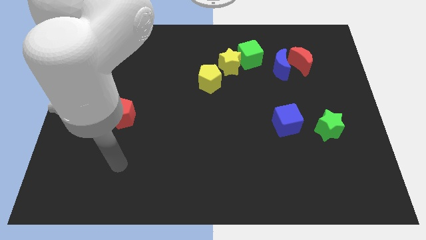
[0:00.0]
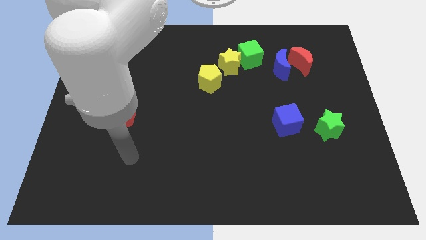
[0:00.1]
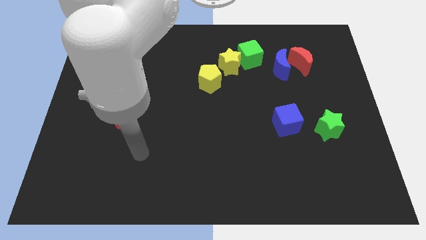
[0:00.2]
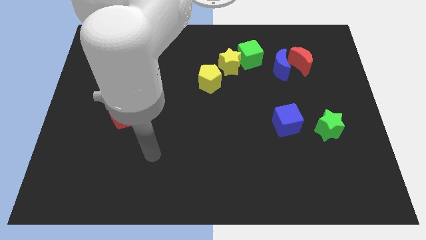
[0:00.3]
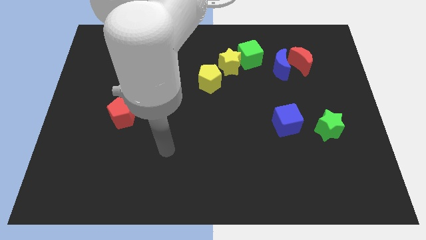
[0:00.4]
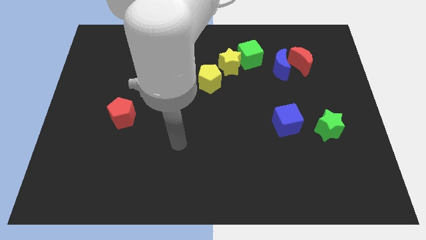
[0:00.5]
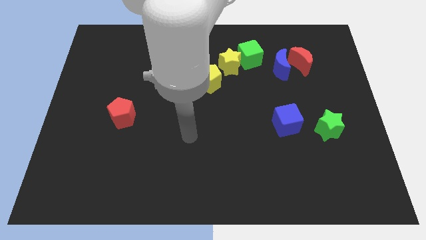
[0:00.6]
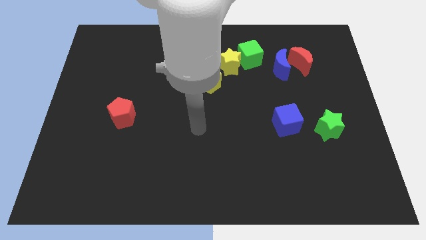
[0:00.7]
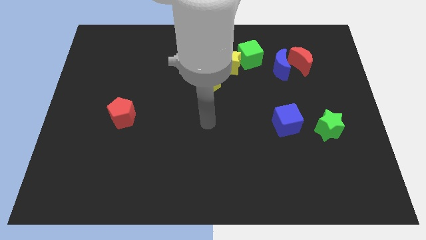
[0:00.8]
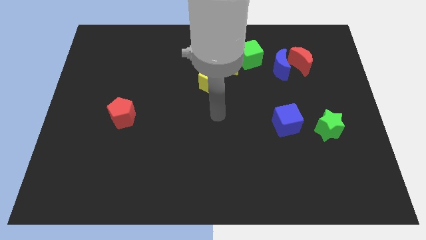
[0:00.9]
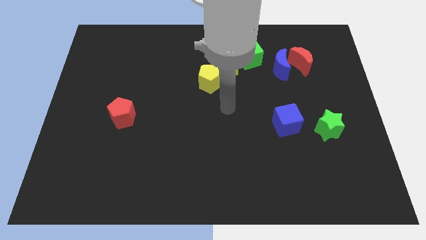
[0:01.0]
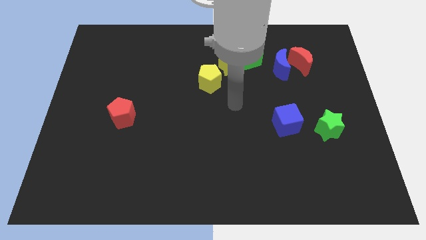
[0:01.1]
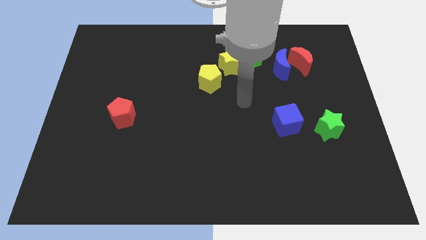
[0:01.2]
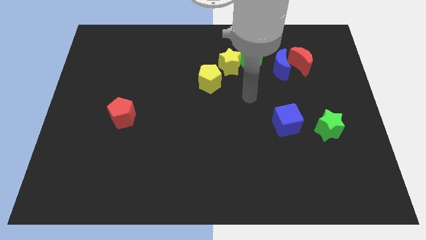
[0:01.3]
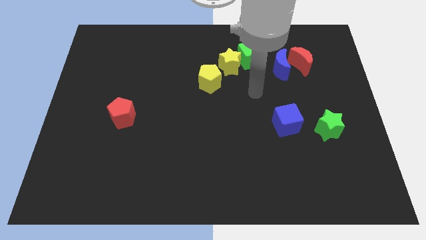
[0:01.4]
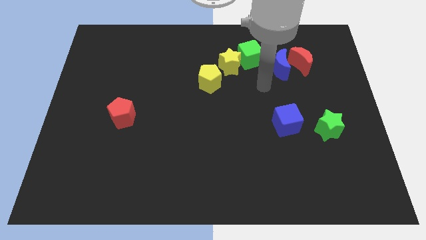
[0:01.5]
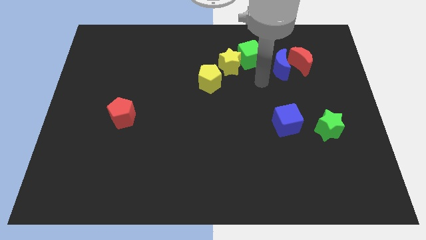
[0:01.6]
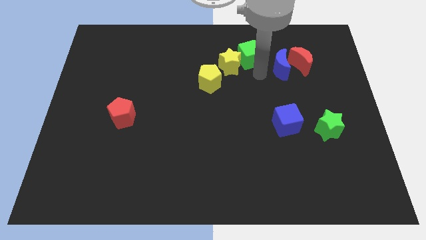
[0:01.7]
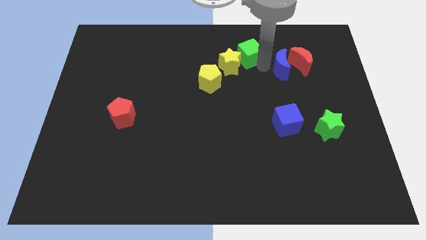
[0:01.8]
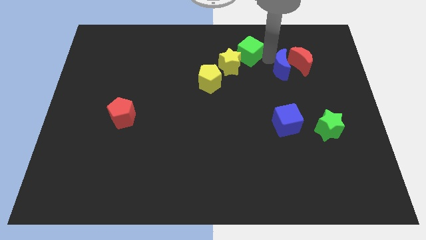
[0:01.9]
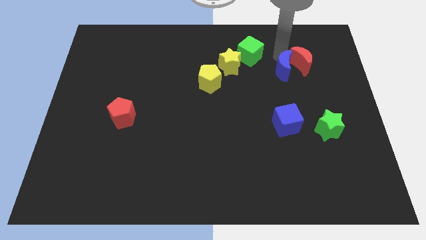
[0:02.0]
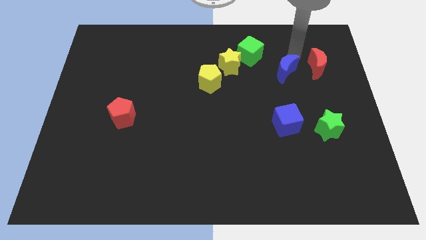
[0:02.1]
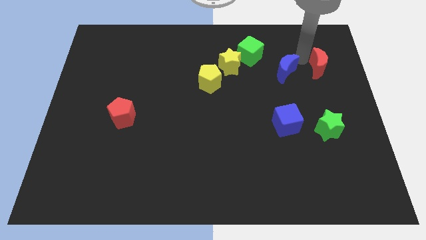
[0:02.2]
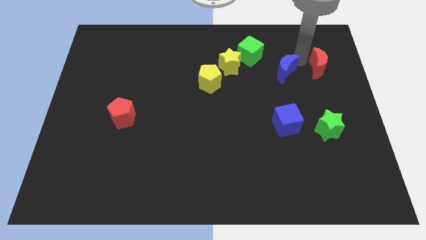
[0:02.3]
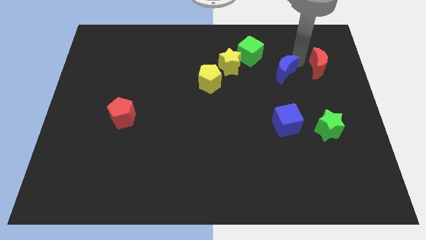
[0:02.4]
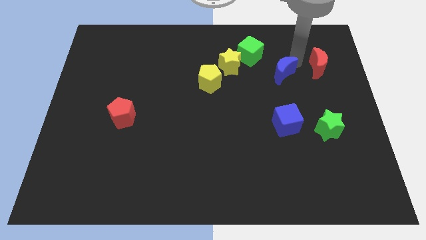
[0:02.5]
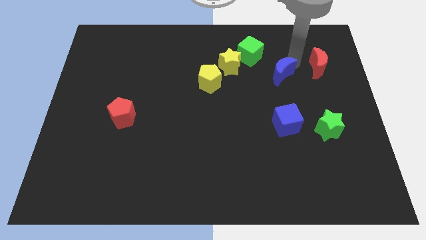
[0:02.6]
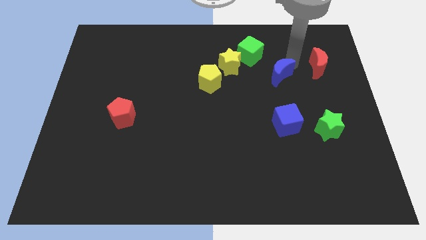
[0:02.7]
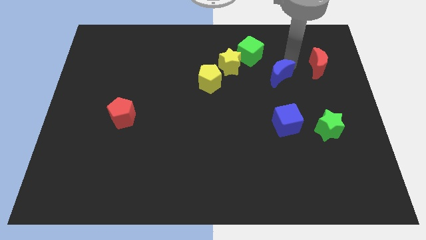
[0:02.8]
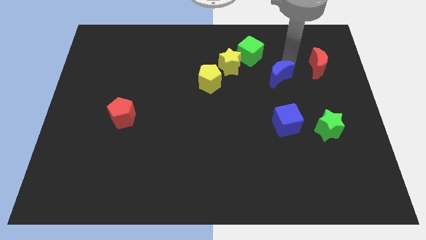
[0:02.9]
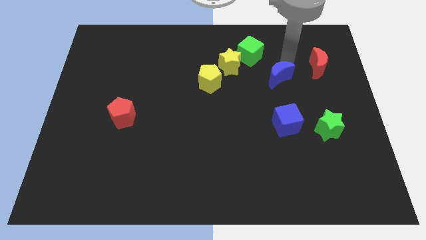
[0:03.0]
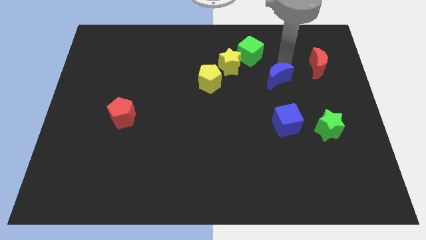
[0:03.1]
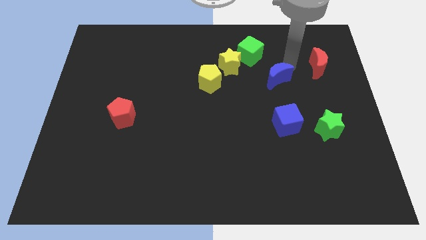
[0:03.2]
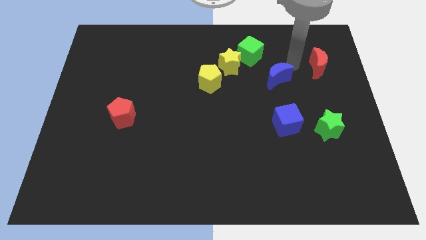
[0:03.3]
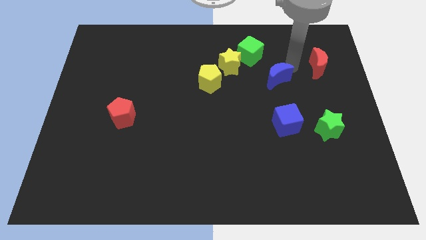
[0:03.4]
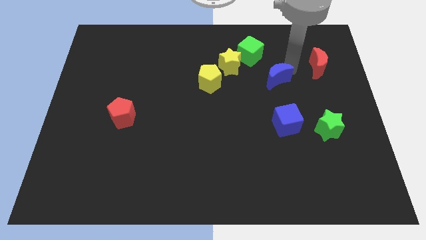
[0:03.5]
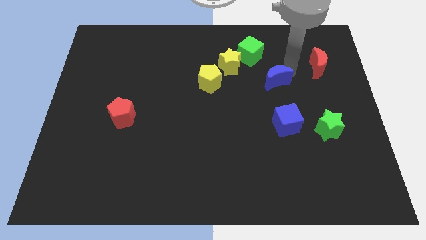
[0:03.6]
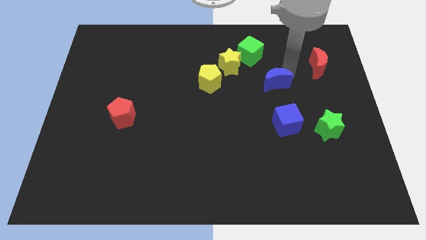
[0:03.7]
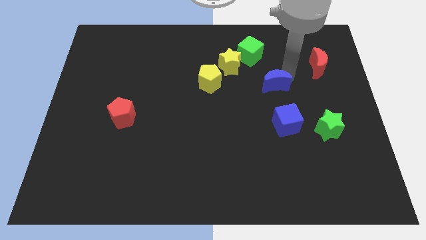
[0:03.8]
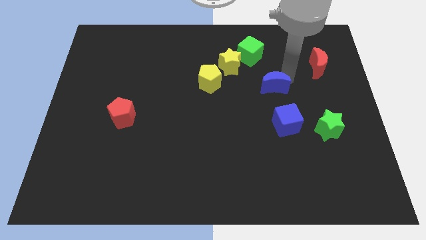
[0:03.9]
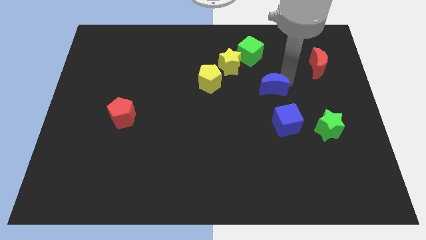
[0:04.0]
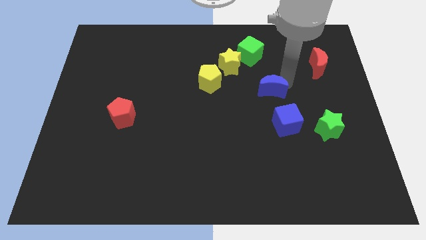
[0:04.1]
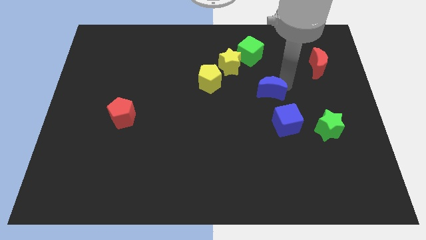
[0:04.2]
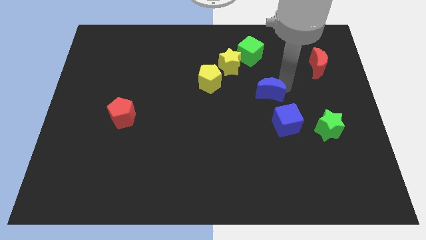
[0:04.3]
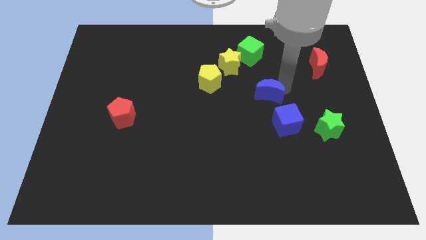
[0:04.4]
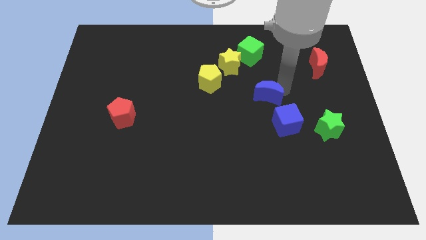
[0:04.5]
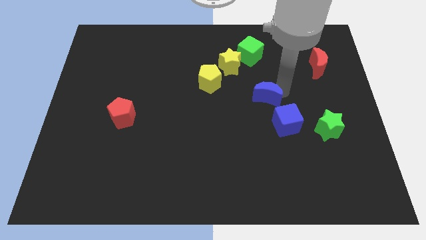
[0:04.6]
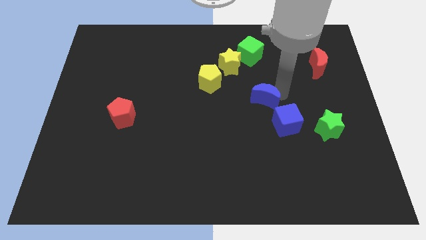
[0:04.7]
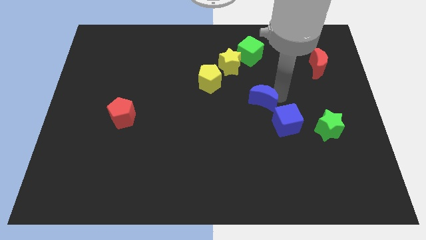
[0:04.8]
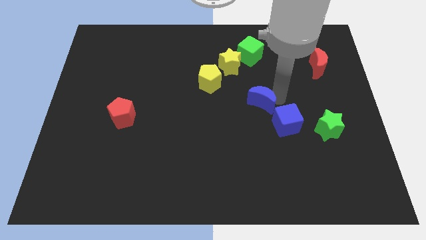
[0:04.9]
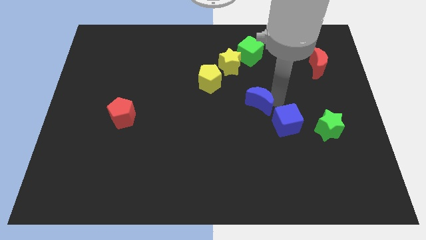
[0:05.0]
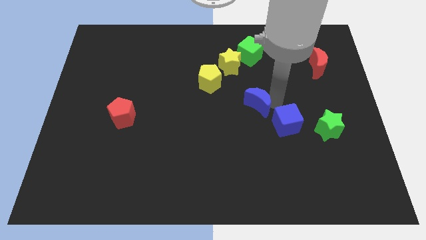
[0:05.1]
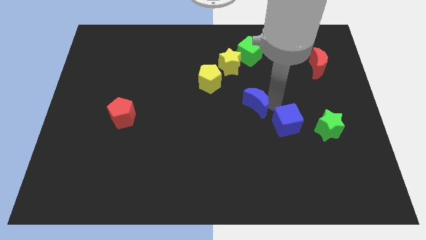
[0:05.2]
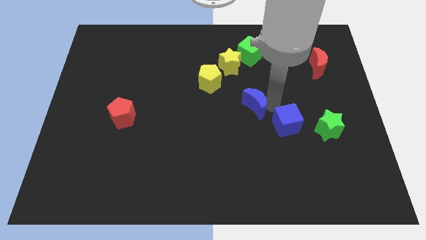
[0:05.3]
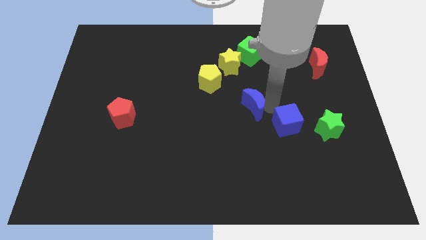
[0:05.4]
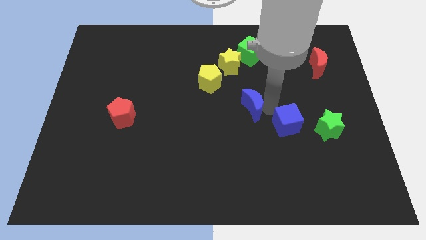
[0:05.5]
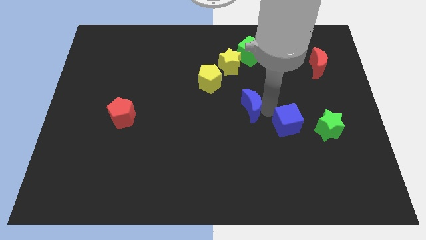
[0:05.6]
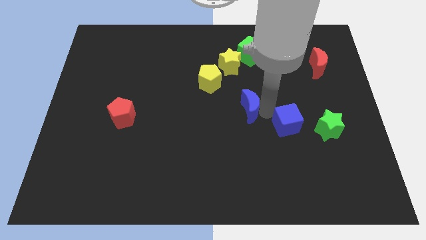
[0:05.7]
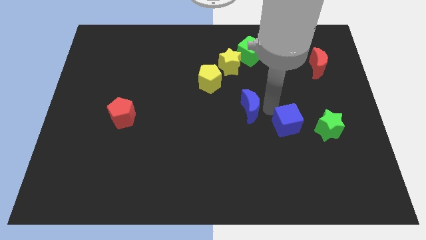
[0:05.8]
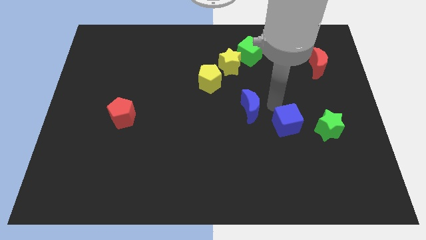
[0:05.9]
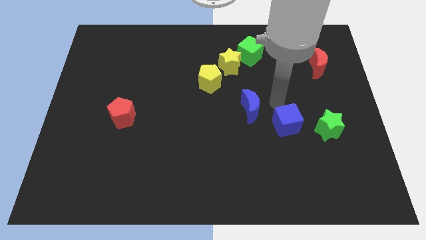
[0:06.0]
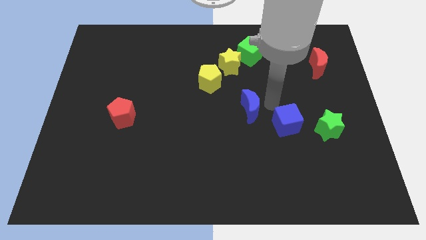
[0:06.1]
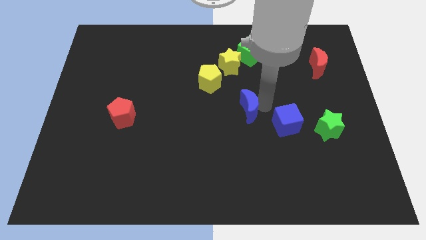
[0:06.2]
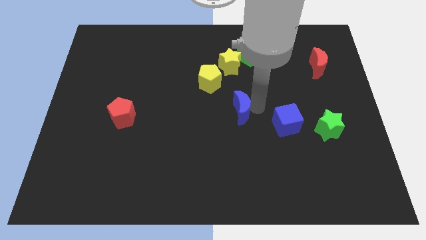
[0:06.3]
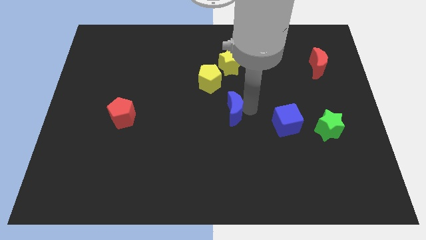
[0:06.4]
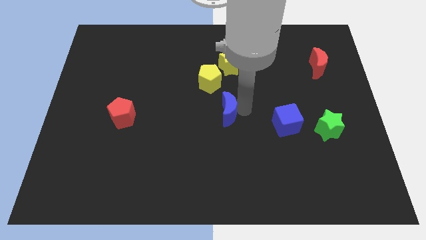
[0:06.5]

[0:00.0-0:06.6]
push the blue moon down and then to the left

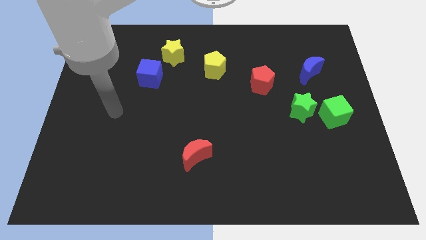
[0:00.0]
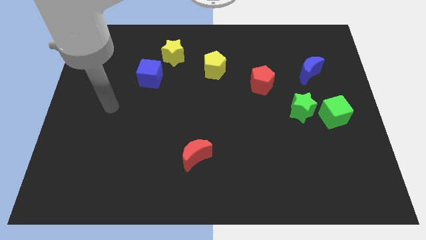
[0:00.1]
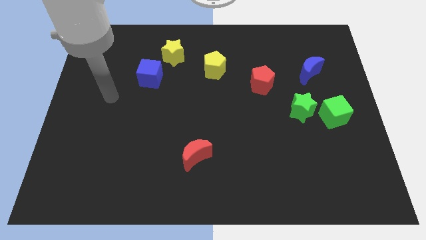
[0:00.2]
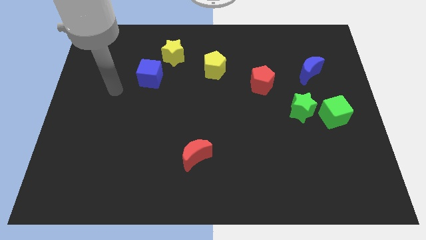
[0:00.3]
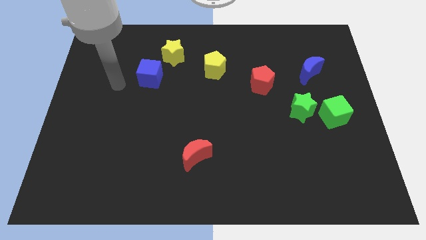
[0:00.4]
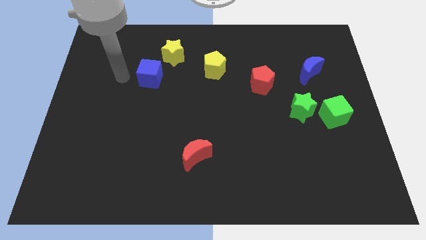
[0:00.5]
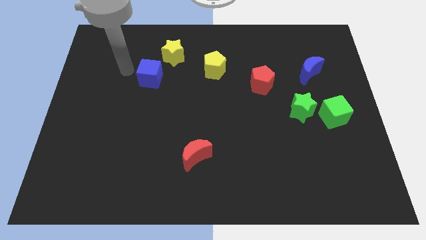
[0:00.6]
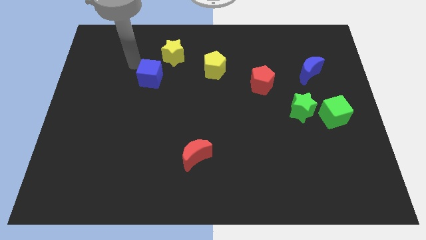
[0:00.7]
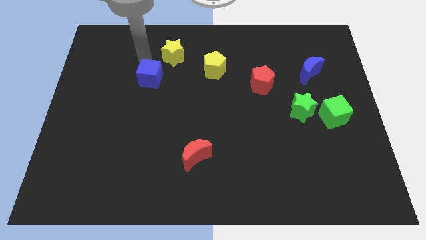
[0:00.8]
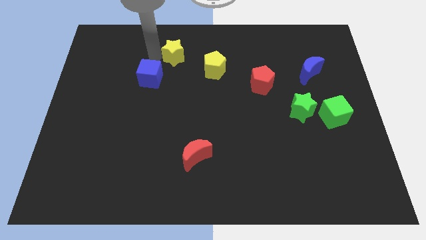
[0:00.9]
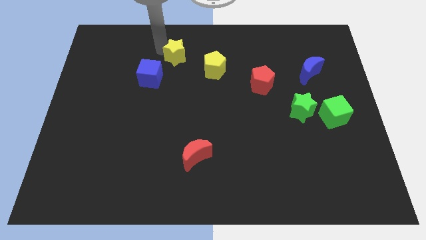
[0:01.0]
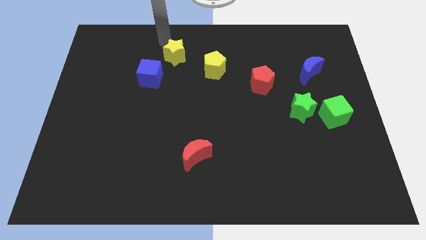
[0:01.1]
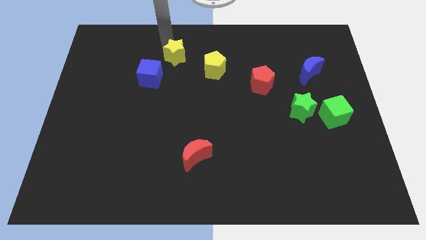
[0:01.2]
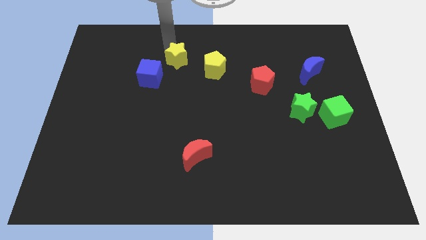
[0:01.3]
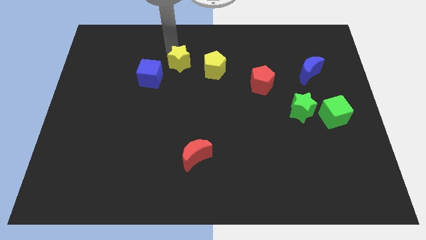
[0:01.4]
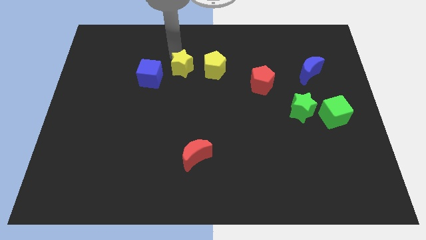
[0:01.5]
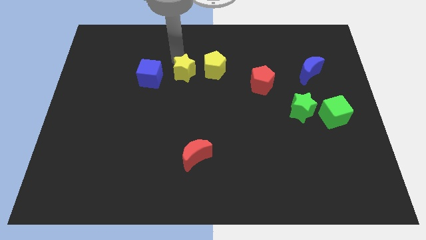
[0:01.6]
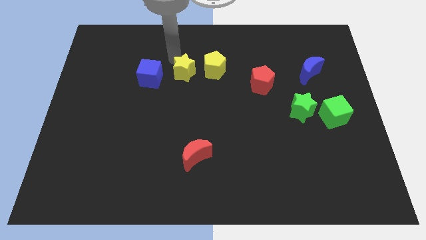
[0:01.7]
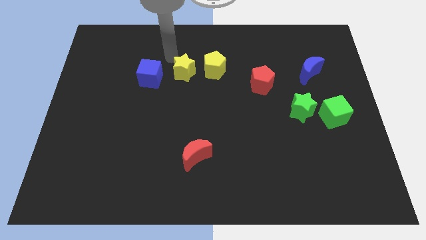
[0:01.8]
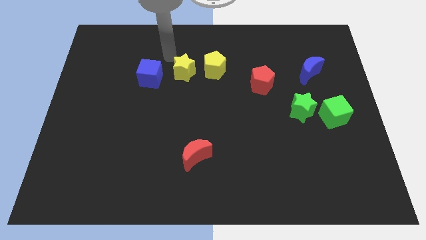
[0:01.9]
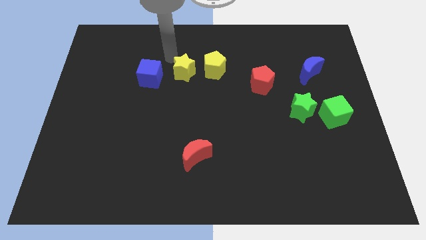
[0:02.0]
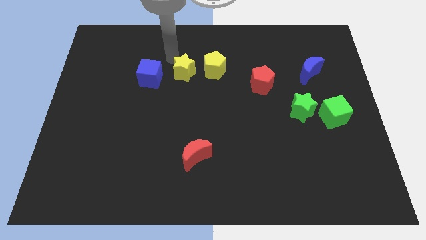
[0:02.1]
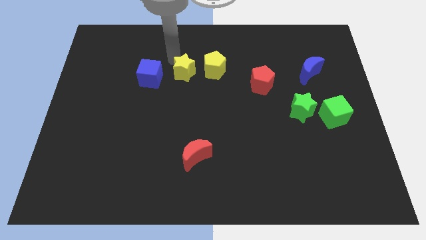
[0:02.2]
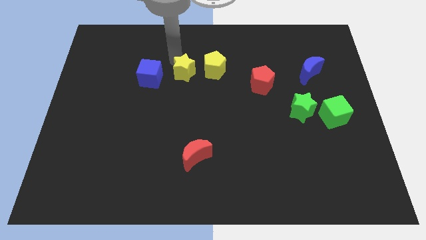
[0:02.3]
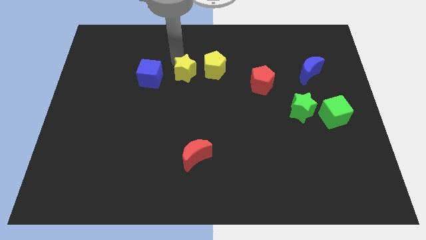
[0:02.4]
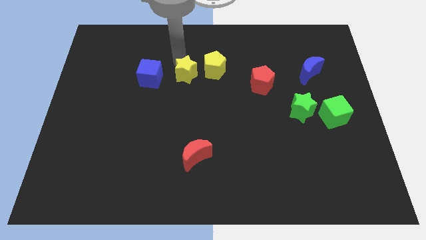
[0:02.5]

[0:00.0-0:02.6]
slide the yellow star a bit downwards and then right
